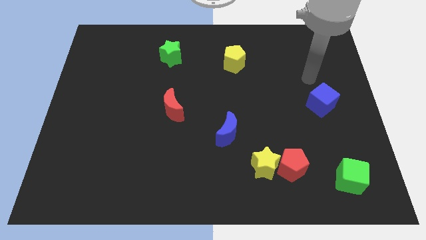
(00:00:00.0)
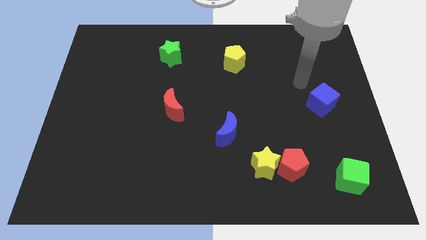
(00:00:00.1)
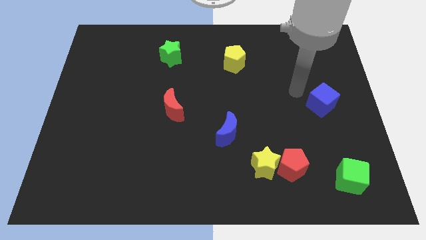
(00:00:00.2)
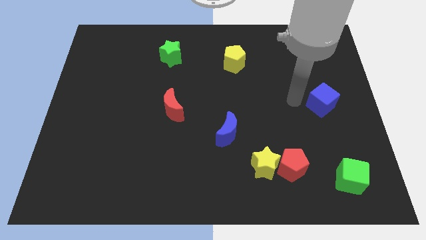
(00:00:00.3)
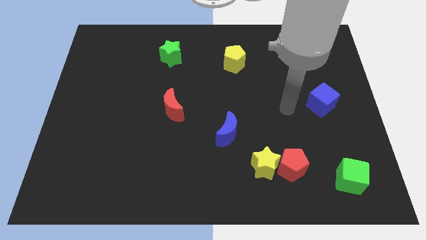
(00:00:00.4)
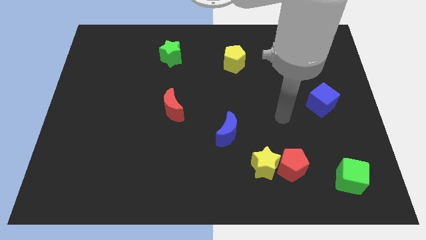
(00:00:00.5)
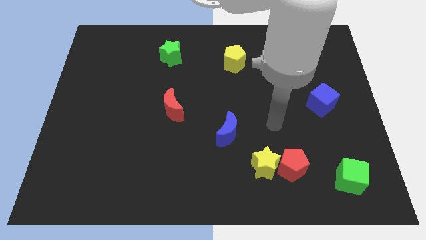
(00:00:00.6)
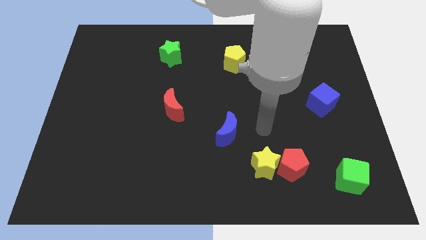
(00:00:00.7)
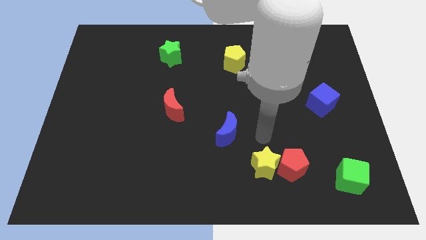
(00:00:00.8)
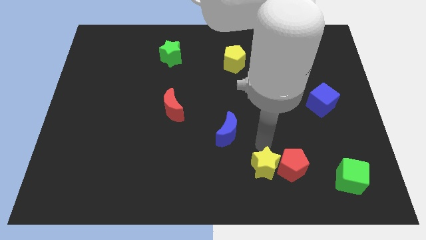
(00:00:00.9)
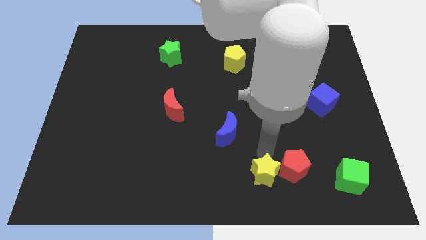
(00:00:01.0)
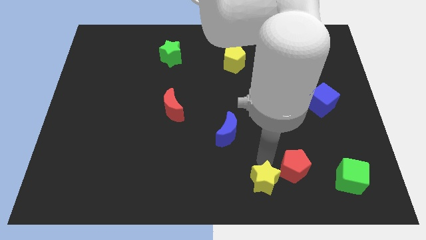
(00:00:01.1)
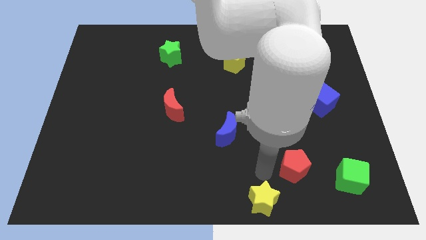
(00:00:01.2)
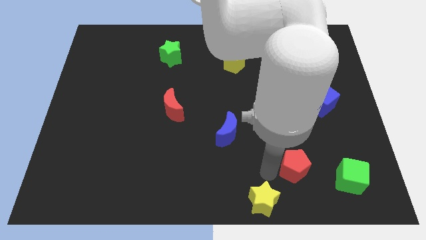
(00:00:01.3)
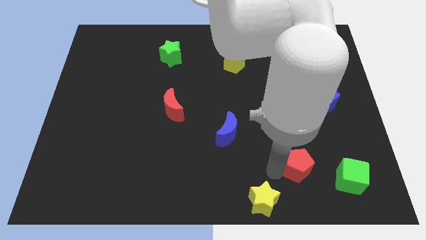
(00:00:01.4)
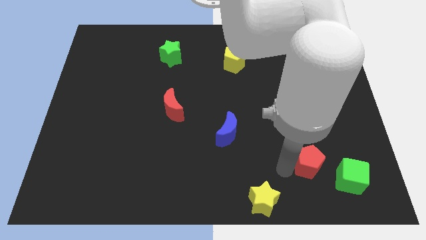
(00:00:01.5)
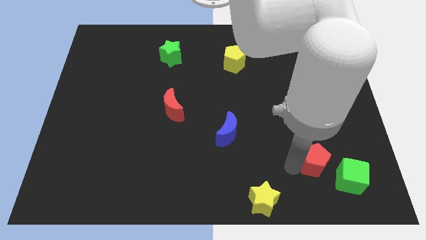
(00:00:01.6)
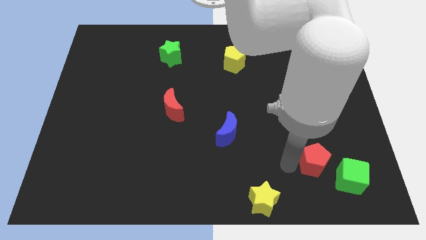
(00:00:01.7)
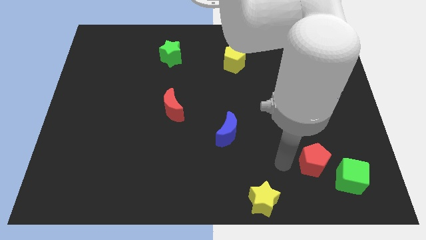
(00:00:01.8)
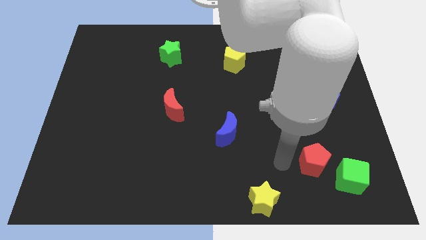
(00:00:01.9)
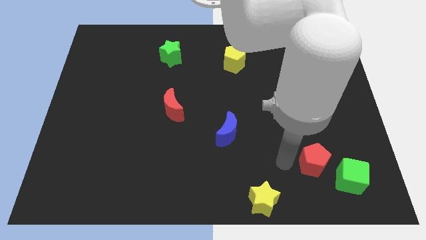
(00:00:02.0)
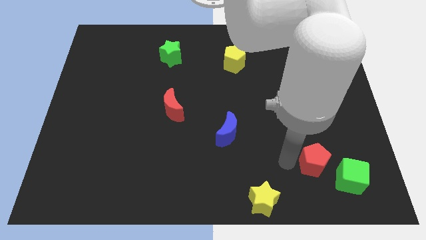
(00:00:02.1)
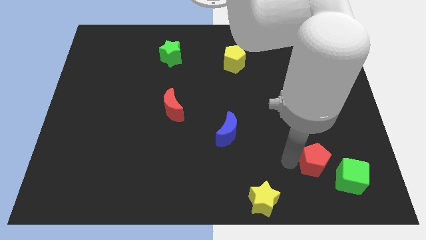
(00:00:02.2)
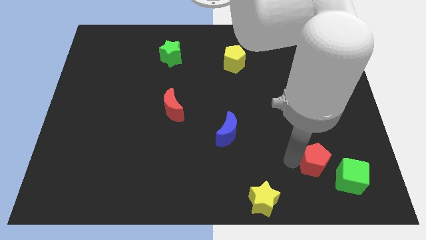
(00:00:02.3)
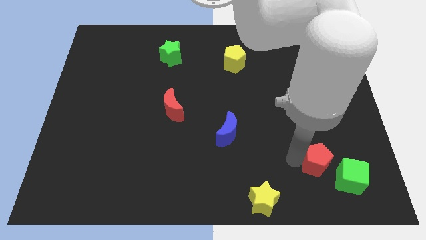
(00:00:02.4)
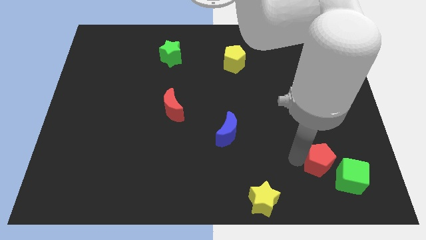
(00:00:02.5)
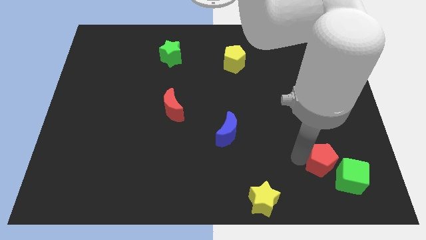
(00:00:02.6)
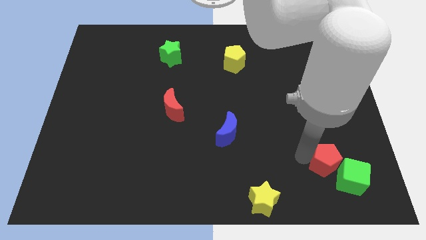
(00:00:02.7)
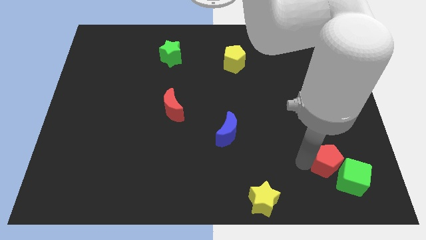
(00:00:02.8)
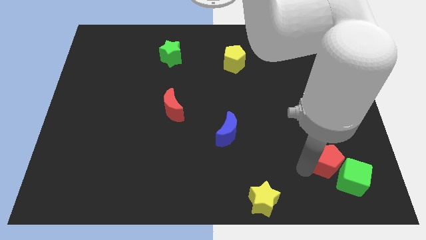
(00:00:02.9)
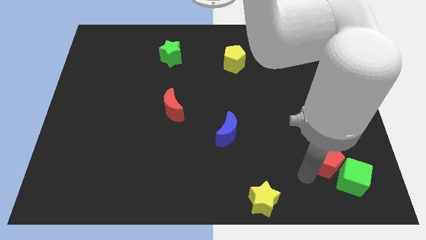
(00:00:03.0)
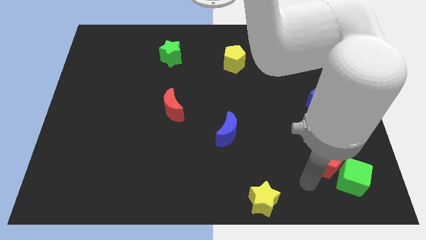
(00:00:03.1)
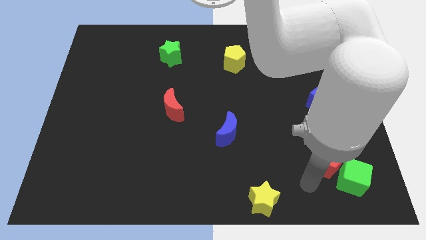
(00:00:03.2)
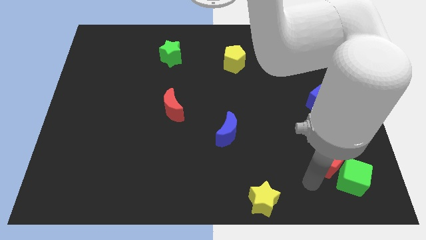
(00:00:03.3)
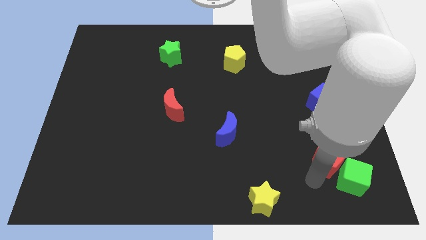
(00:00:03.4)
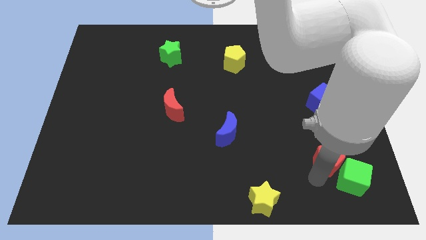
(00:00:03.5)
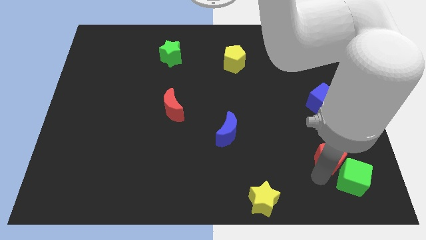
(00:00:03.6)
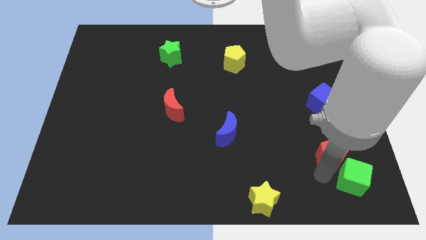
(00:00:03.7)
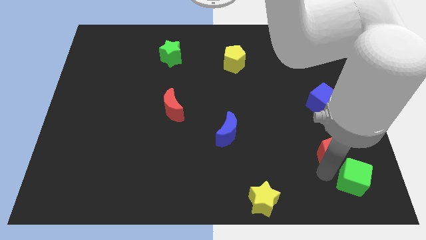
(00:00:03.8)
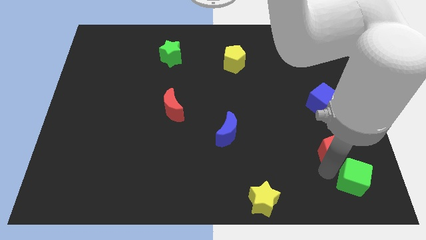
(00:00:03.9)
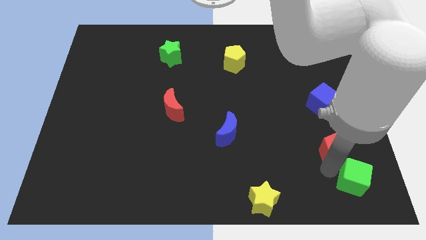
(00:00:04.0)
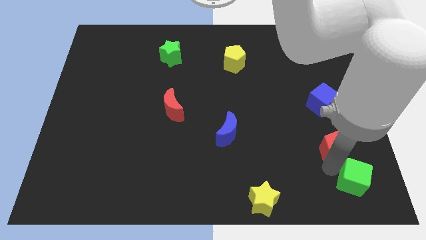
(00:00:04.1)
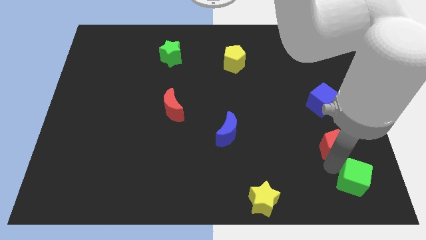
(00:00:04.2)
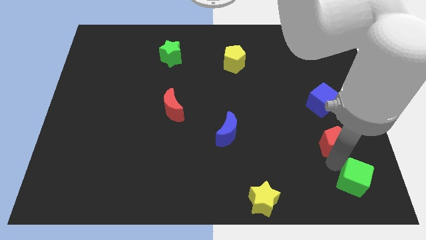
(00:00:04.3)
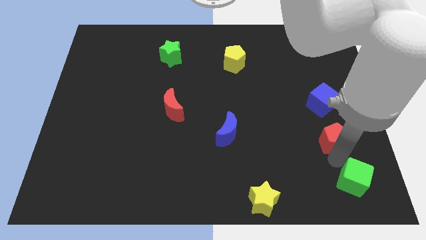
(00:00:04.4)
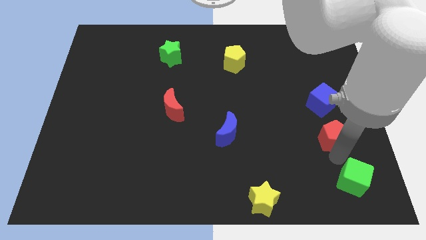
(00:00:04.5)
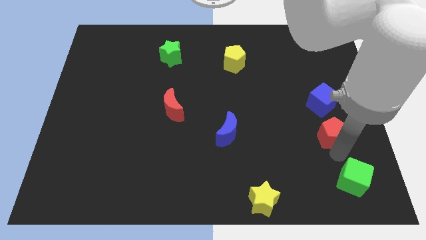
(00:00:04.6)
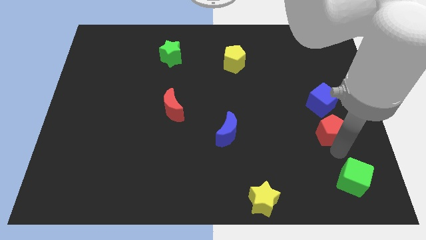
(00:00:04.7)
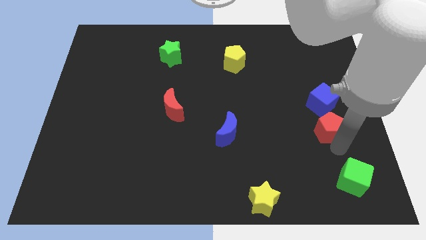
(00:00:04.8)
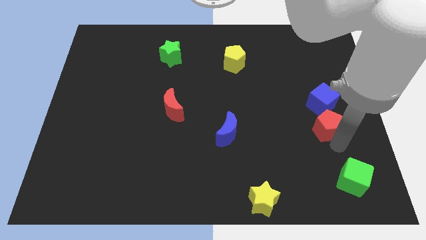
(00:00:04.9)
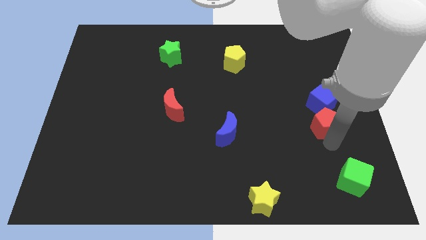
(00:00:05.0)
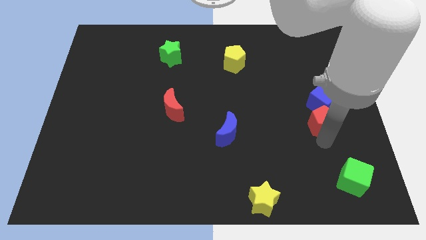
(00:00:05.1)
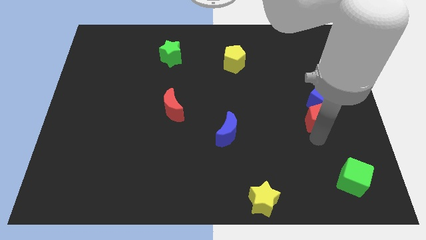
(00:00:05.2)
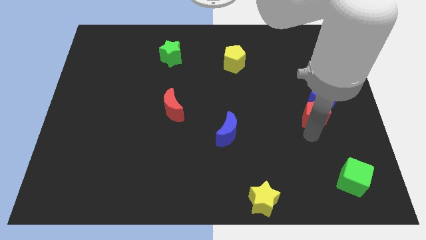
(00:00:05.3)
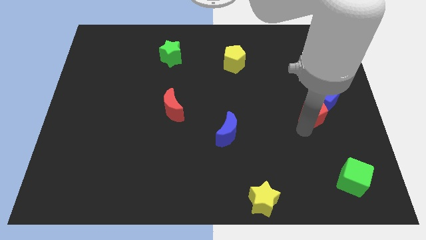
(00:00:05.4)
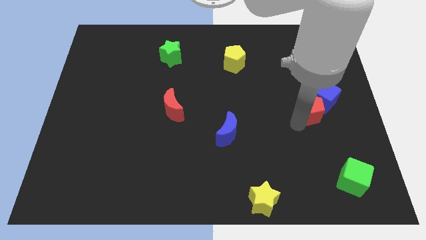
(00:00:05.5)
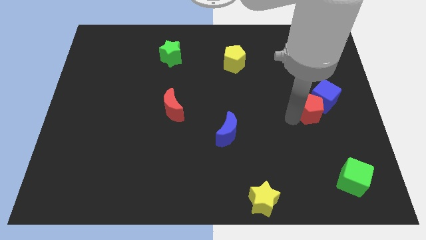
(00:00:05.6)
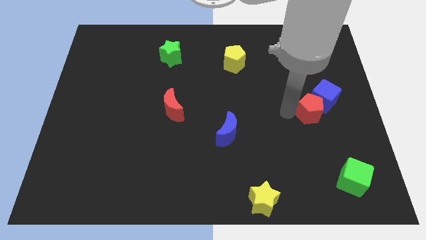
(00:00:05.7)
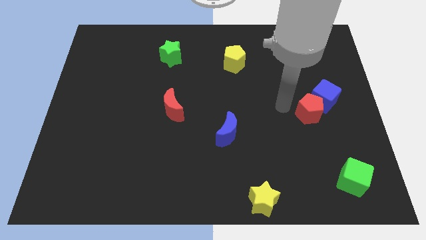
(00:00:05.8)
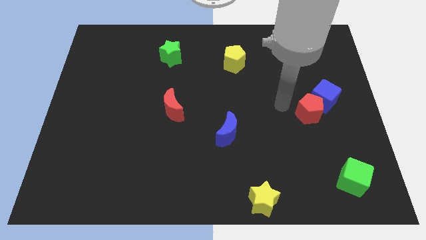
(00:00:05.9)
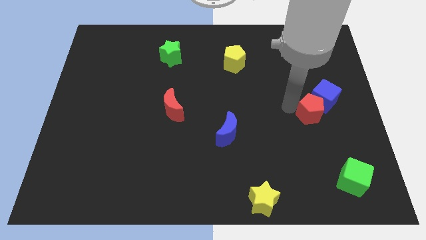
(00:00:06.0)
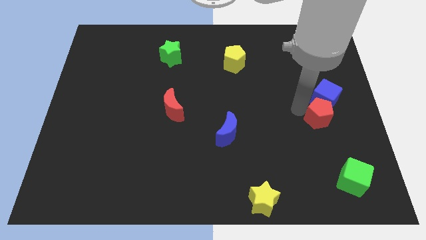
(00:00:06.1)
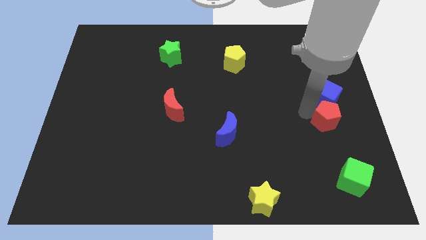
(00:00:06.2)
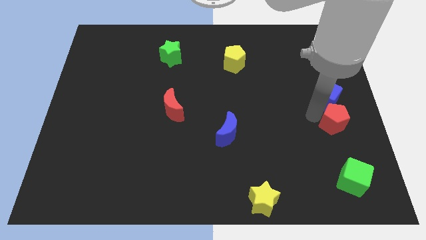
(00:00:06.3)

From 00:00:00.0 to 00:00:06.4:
move the red pentagon to the center right
